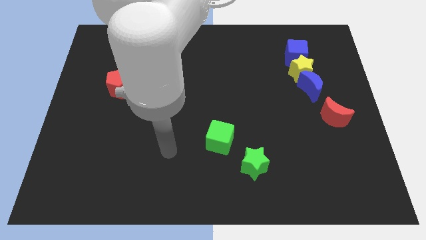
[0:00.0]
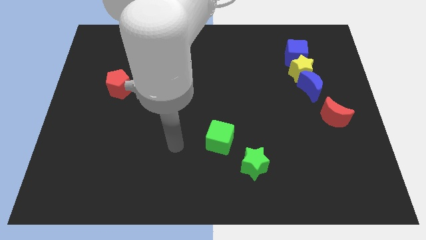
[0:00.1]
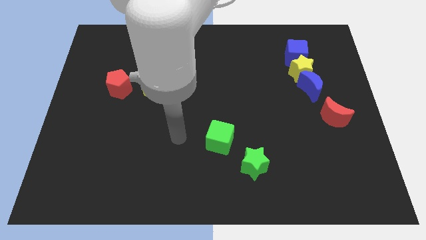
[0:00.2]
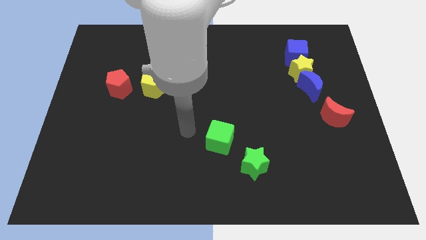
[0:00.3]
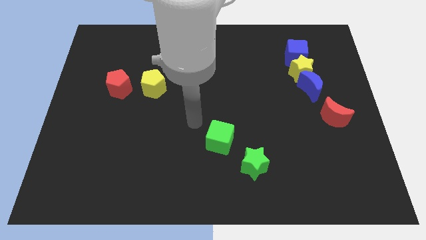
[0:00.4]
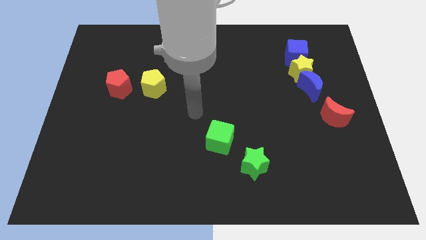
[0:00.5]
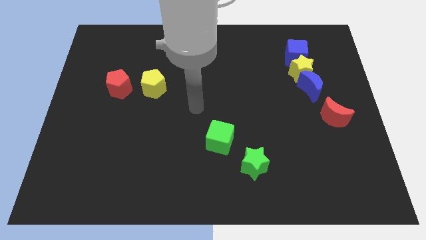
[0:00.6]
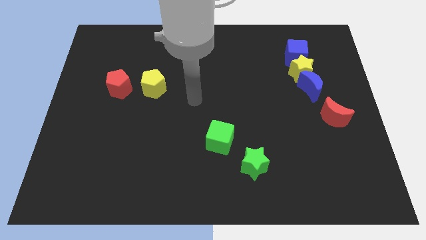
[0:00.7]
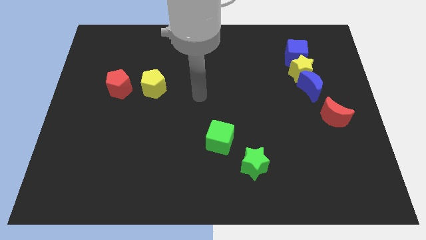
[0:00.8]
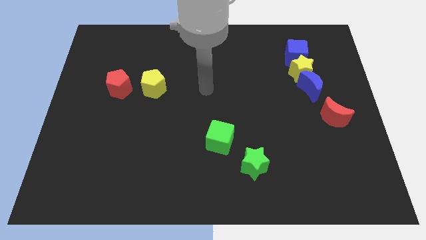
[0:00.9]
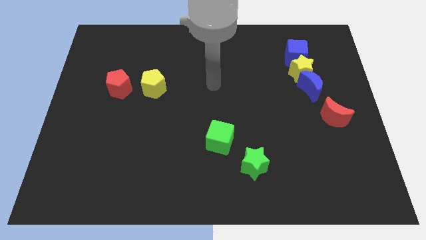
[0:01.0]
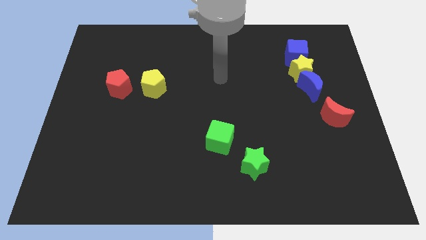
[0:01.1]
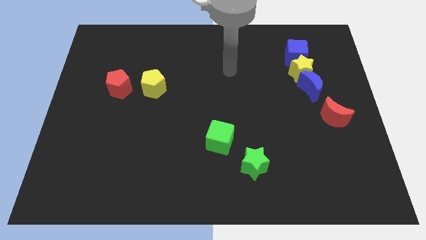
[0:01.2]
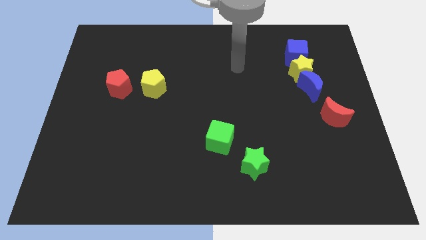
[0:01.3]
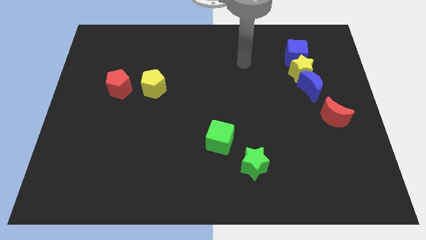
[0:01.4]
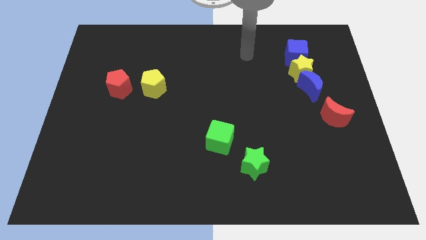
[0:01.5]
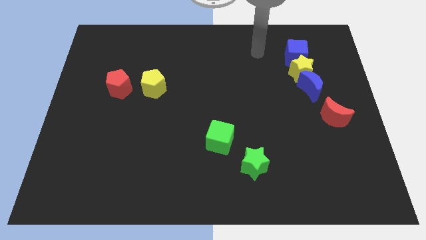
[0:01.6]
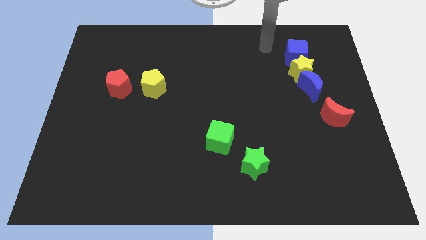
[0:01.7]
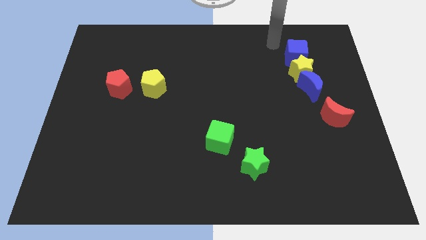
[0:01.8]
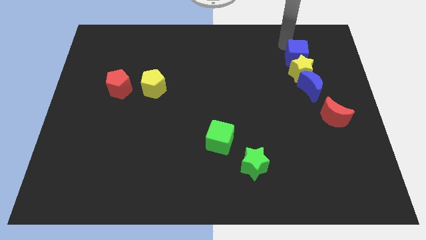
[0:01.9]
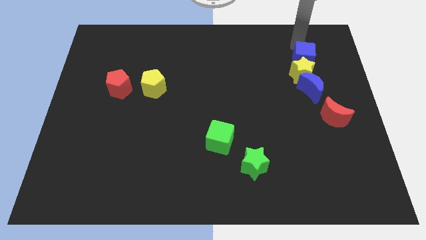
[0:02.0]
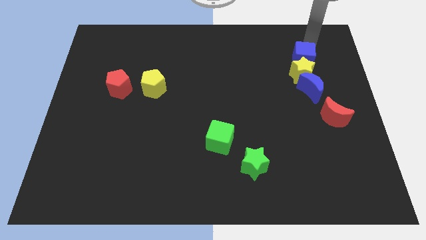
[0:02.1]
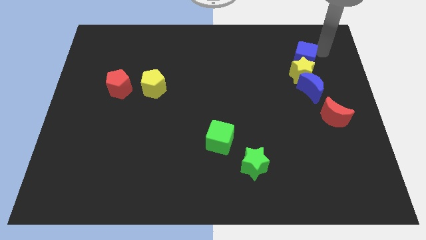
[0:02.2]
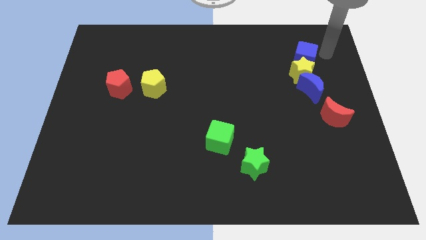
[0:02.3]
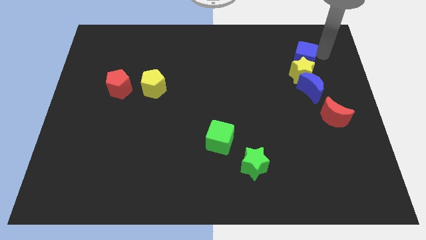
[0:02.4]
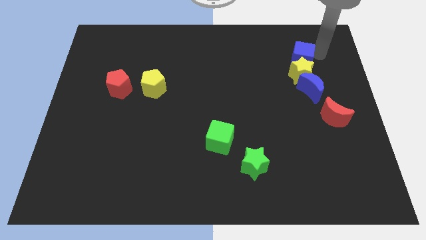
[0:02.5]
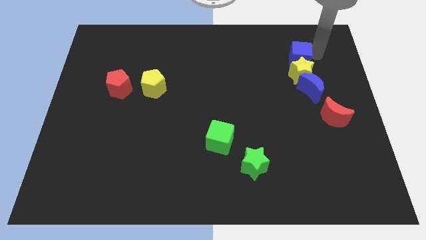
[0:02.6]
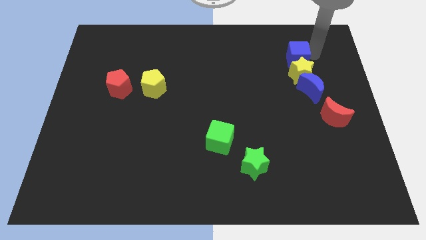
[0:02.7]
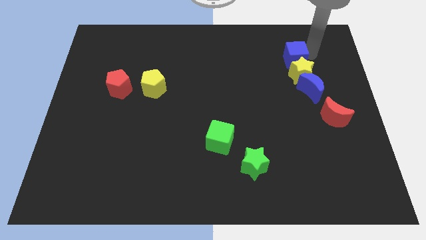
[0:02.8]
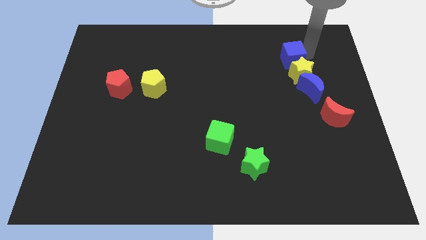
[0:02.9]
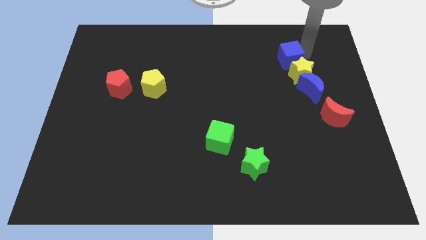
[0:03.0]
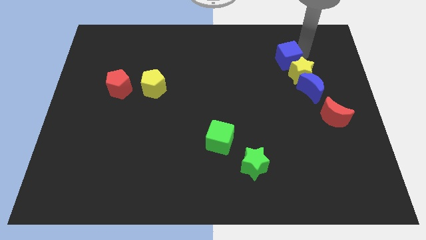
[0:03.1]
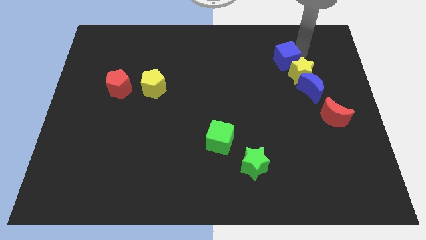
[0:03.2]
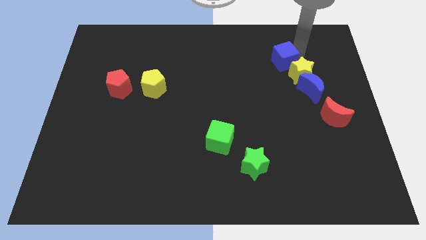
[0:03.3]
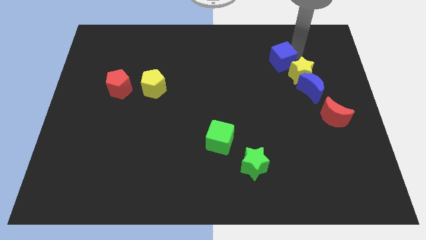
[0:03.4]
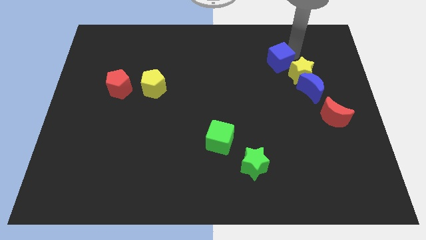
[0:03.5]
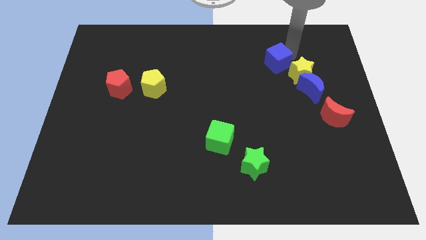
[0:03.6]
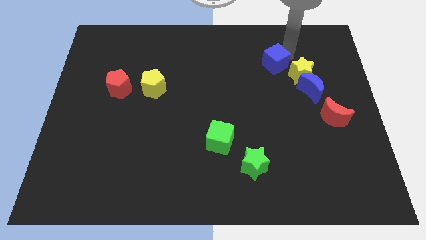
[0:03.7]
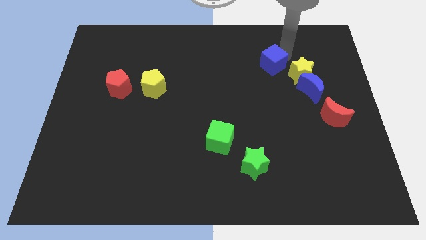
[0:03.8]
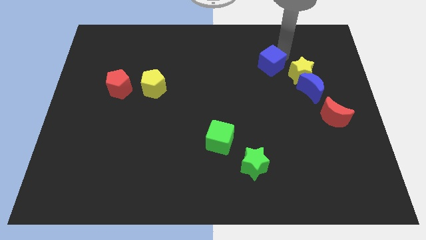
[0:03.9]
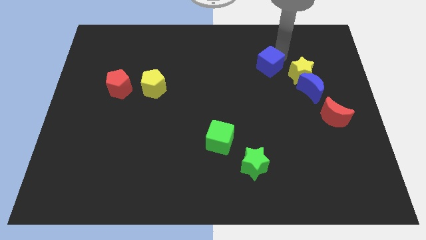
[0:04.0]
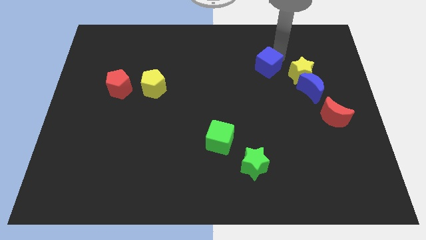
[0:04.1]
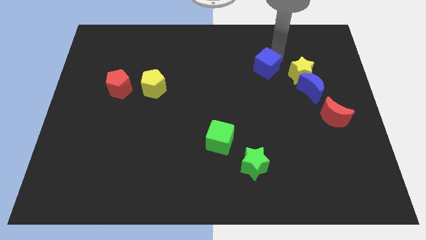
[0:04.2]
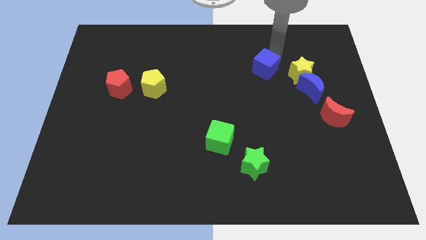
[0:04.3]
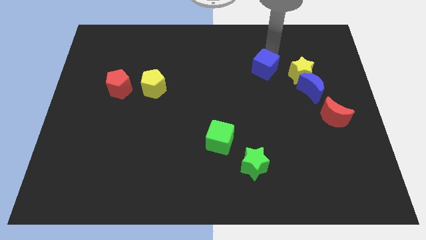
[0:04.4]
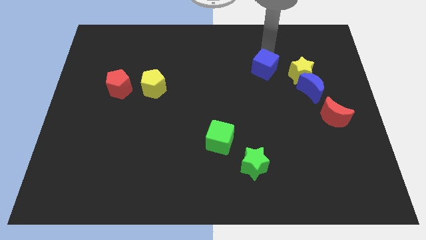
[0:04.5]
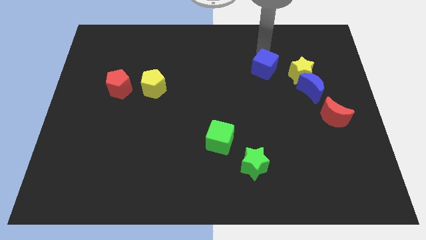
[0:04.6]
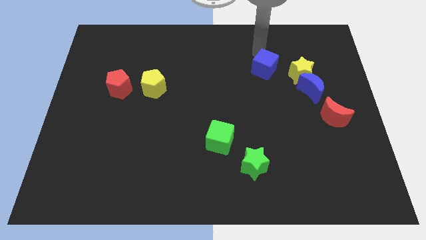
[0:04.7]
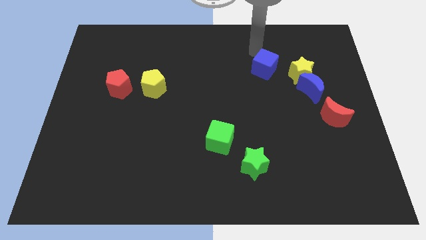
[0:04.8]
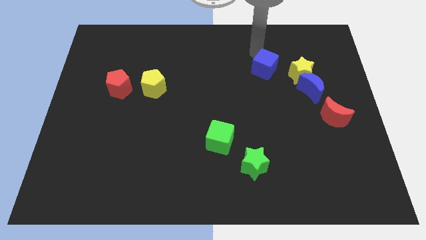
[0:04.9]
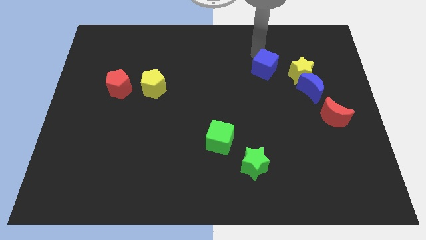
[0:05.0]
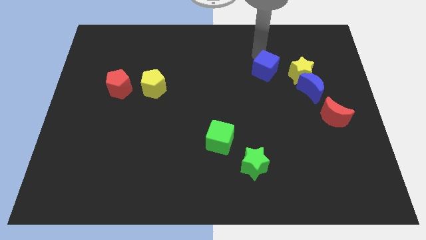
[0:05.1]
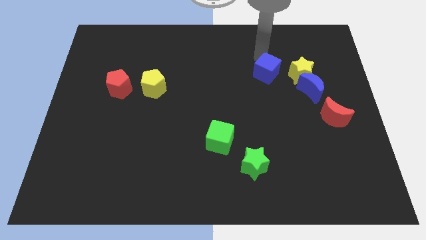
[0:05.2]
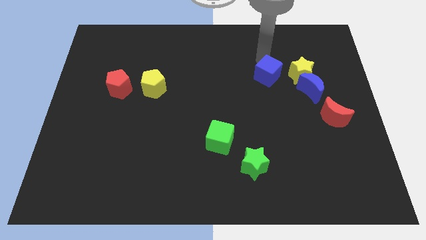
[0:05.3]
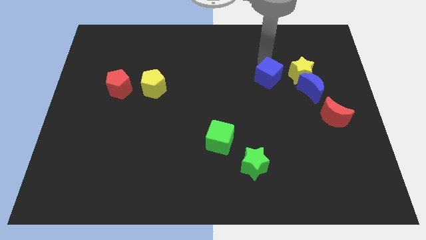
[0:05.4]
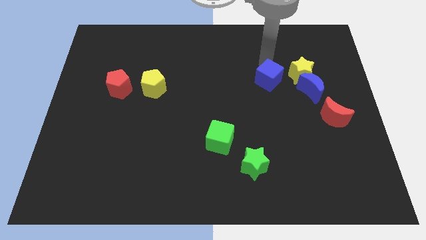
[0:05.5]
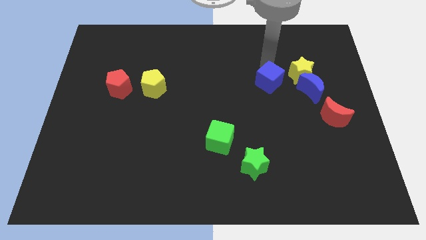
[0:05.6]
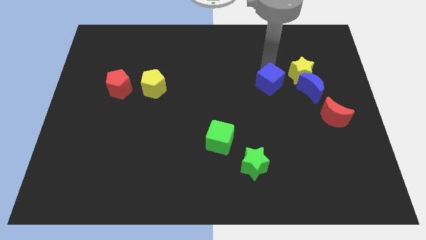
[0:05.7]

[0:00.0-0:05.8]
slide the blue cube downwards a little

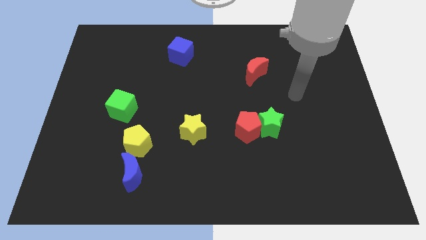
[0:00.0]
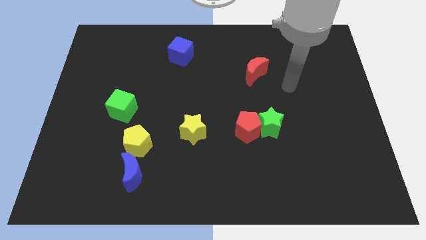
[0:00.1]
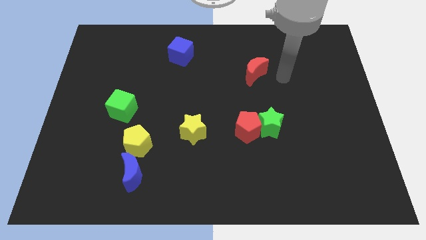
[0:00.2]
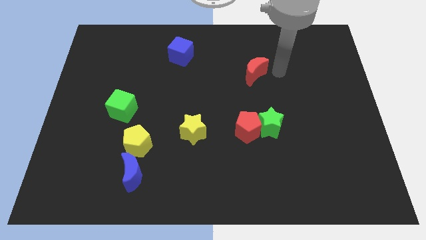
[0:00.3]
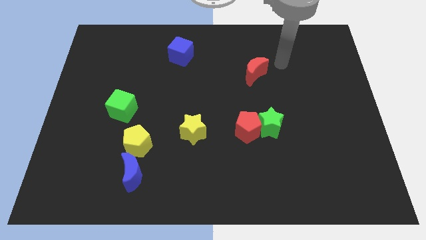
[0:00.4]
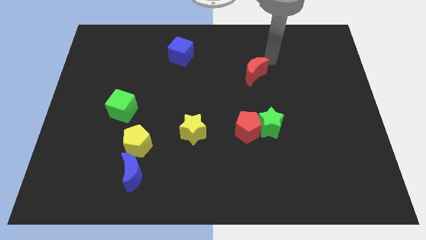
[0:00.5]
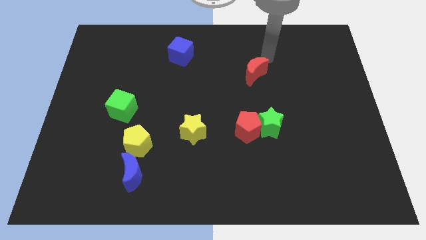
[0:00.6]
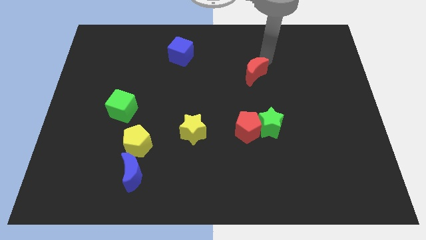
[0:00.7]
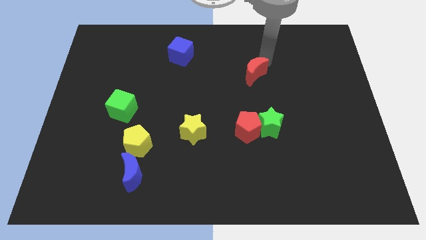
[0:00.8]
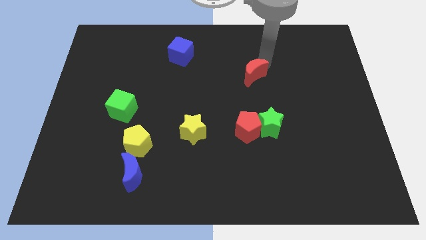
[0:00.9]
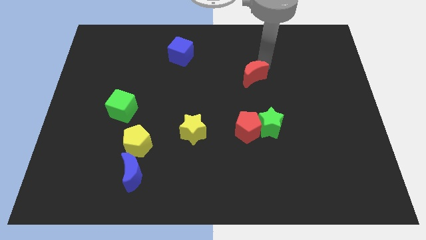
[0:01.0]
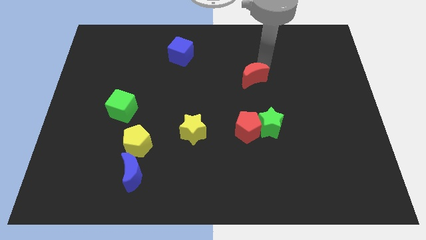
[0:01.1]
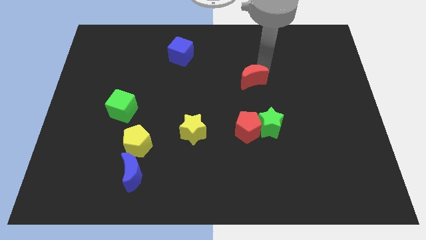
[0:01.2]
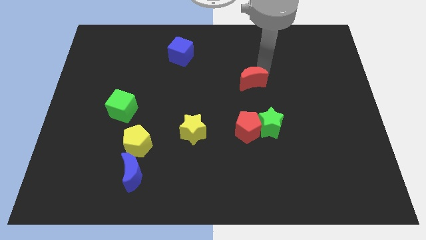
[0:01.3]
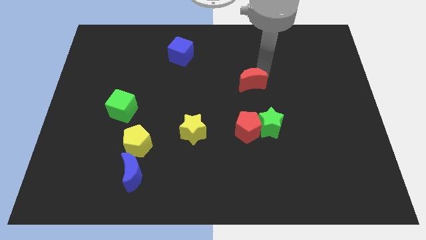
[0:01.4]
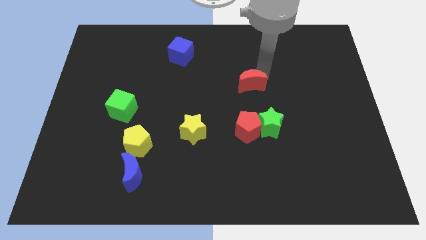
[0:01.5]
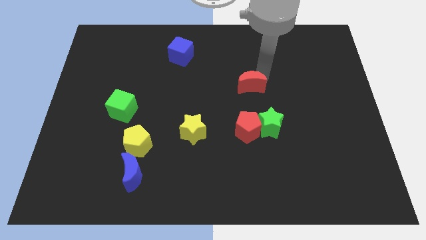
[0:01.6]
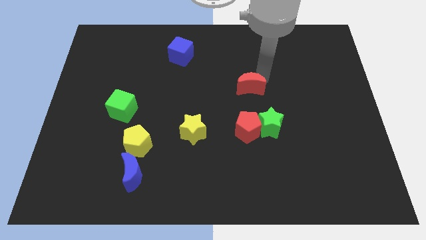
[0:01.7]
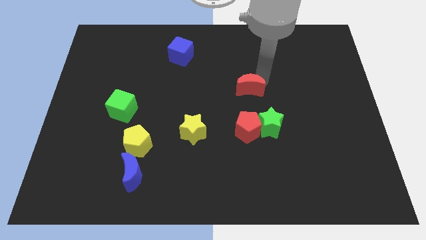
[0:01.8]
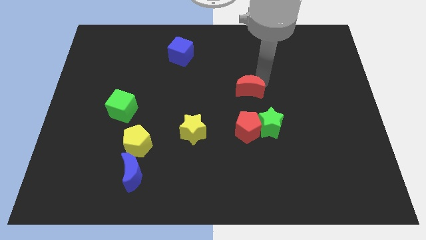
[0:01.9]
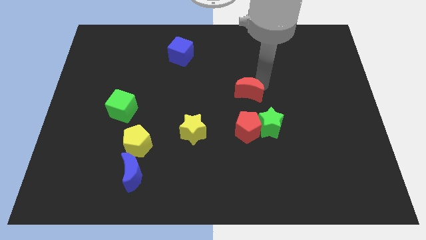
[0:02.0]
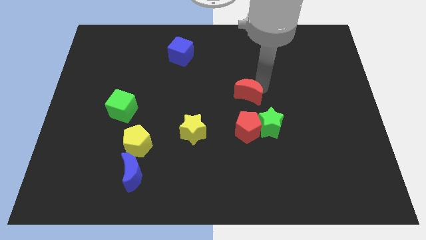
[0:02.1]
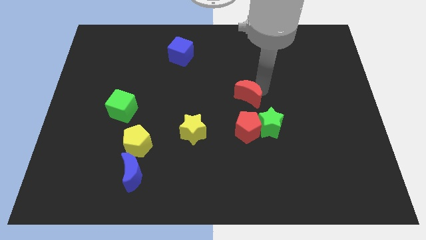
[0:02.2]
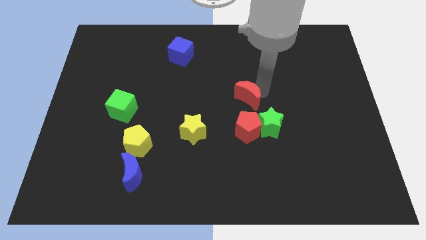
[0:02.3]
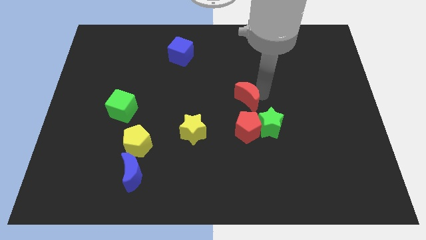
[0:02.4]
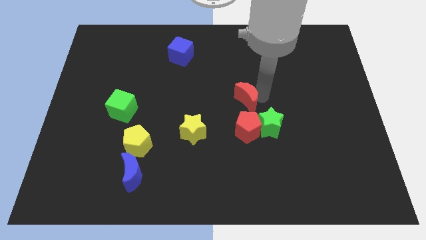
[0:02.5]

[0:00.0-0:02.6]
move the red moon a bit diagonally down and left
